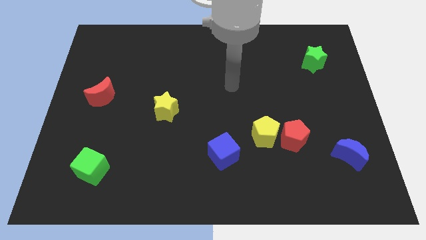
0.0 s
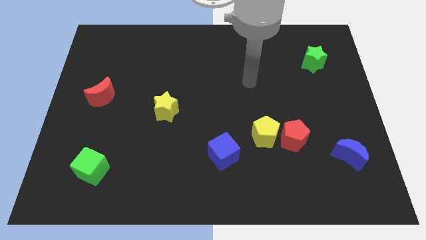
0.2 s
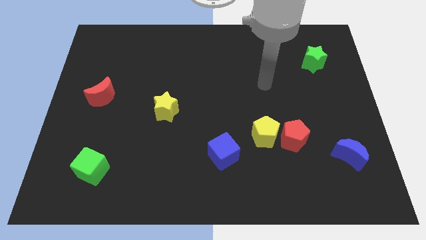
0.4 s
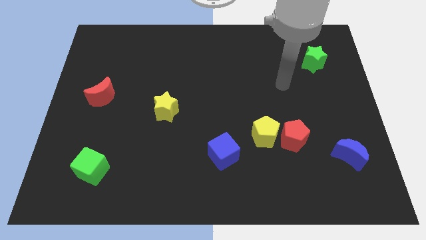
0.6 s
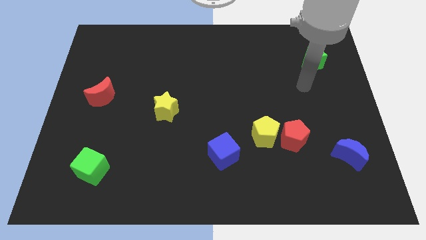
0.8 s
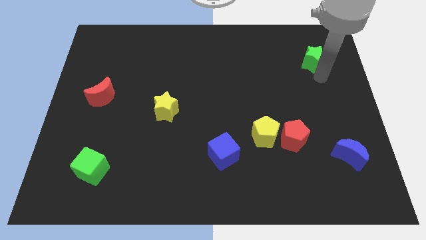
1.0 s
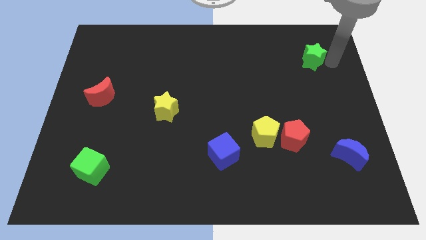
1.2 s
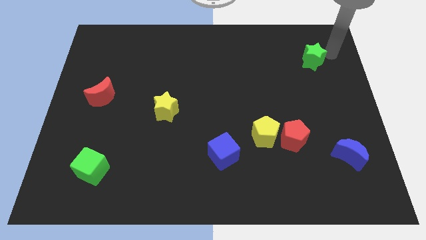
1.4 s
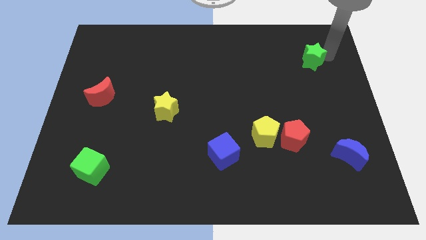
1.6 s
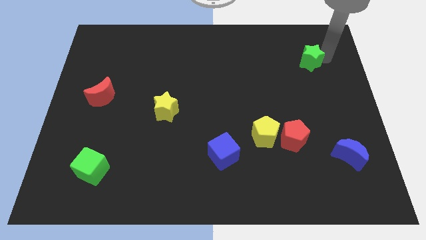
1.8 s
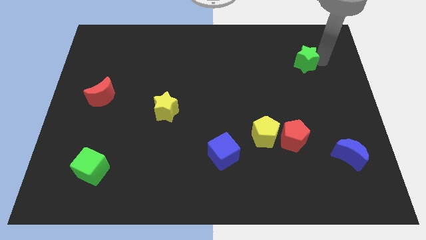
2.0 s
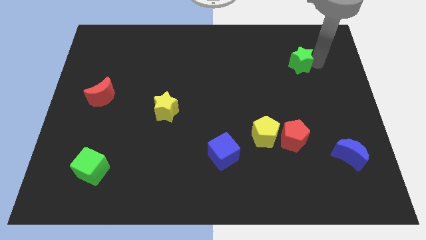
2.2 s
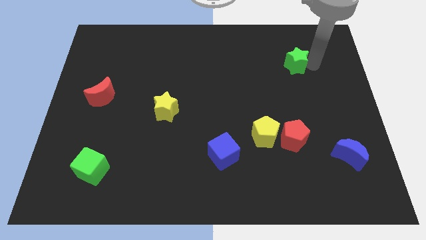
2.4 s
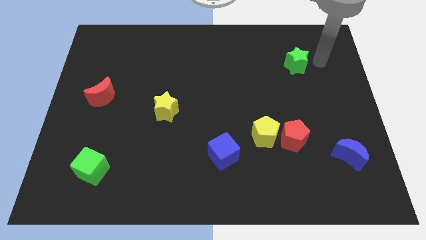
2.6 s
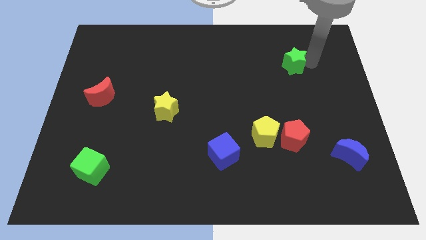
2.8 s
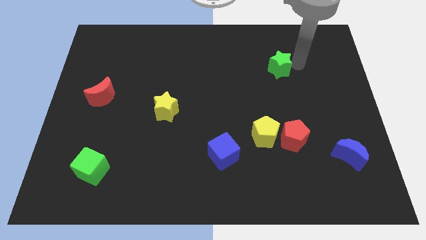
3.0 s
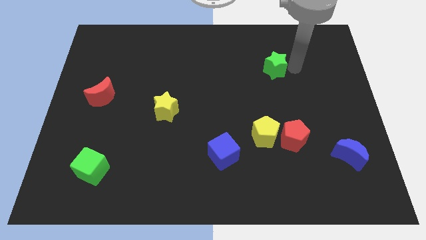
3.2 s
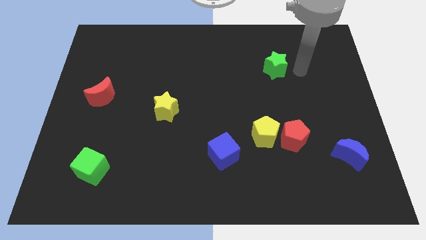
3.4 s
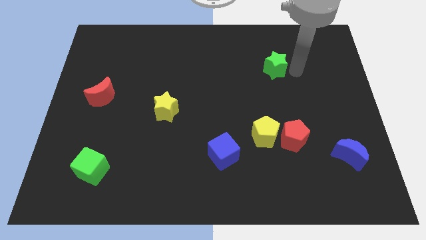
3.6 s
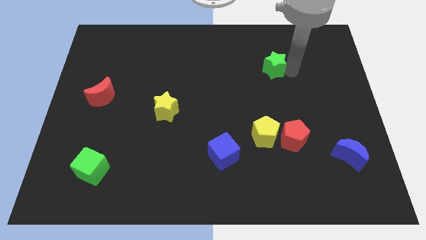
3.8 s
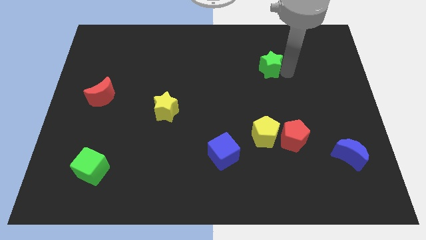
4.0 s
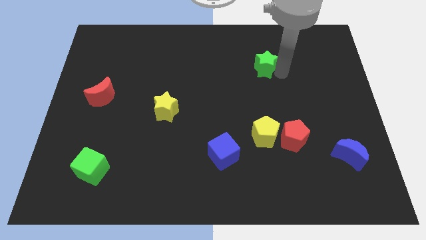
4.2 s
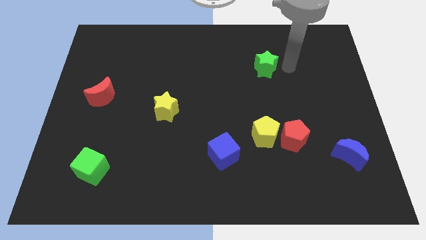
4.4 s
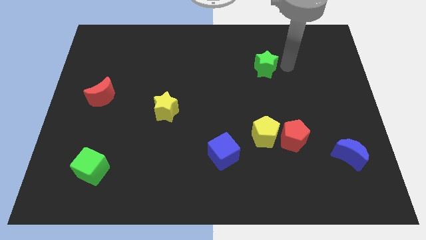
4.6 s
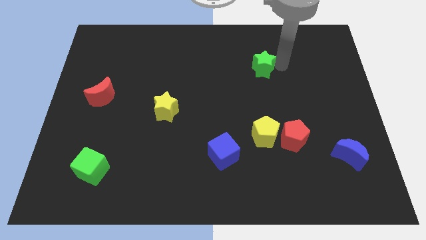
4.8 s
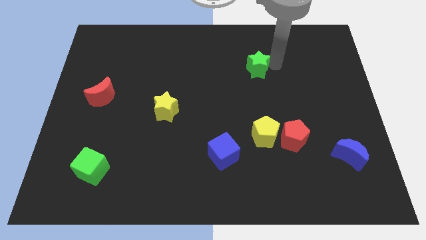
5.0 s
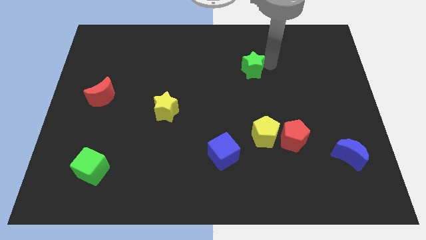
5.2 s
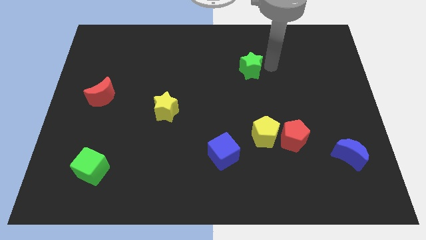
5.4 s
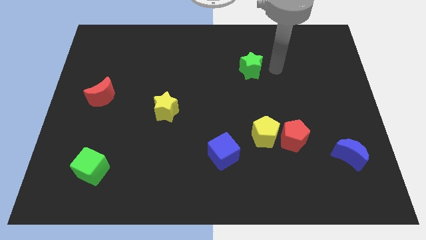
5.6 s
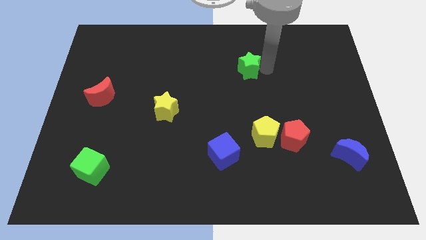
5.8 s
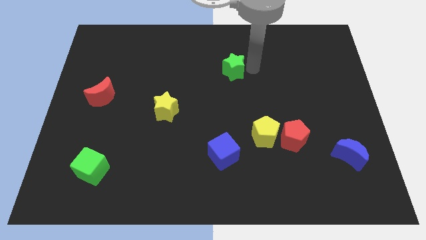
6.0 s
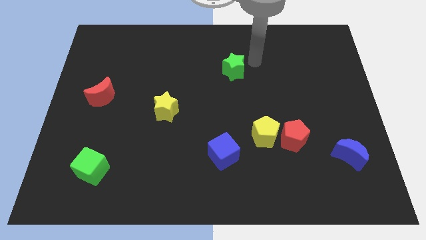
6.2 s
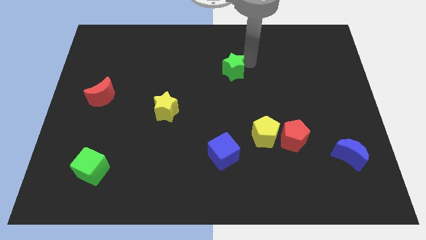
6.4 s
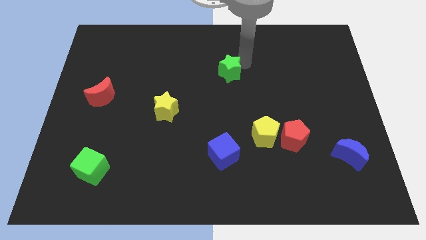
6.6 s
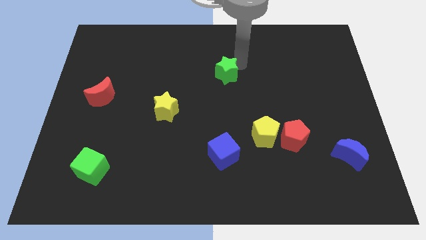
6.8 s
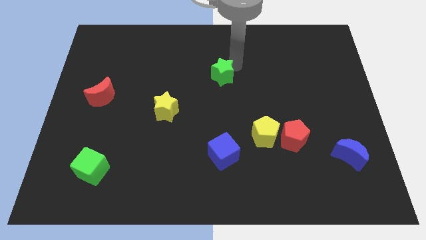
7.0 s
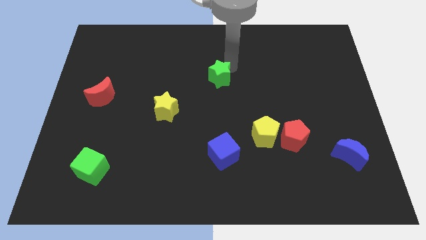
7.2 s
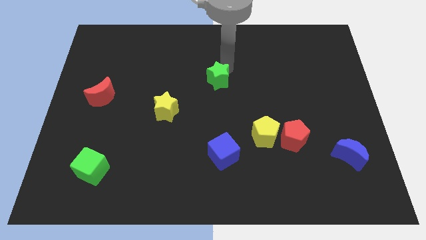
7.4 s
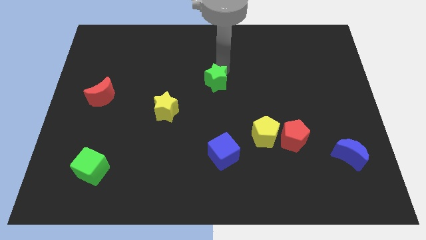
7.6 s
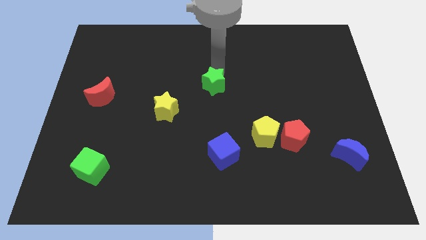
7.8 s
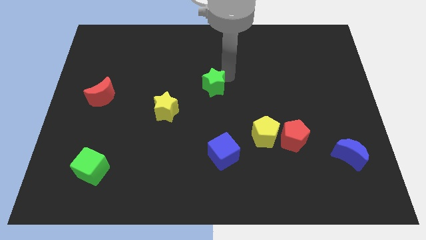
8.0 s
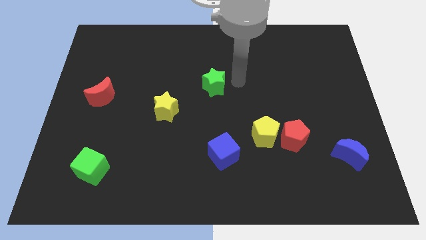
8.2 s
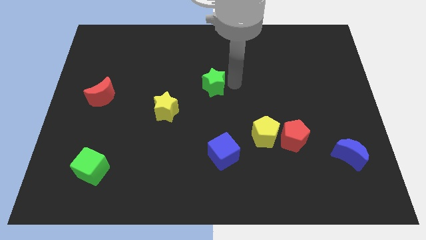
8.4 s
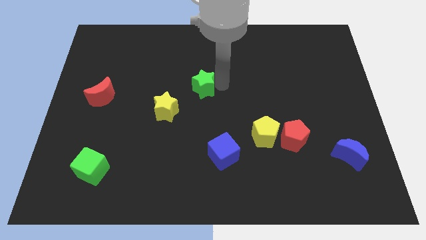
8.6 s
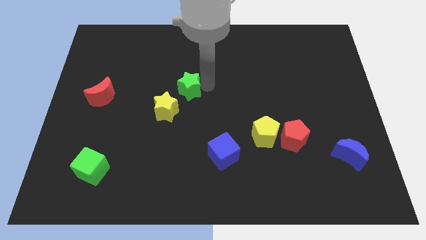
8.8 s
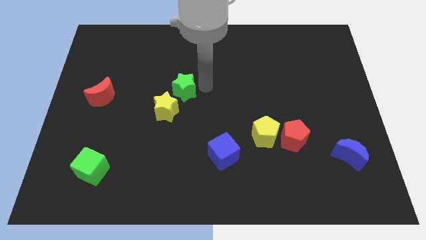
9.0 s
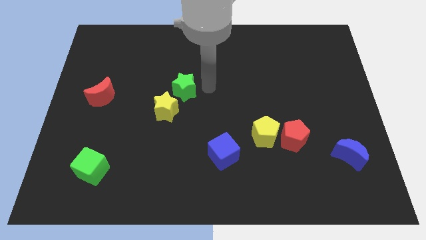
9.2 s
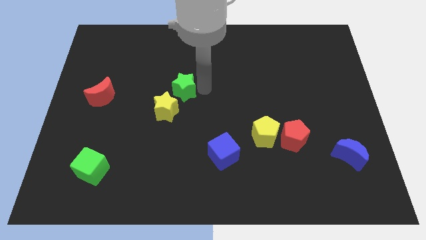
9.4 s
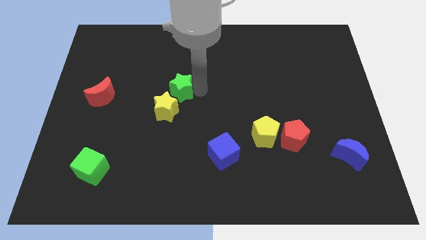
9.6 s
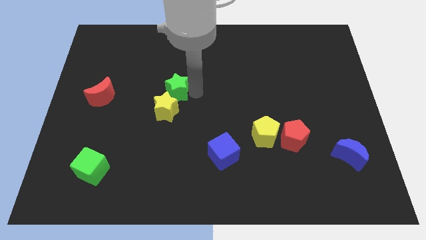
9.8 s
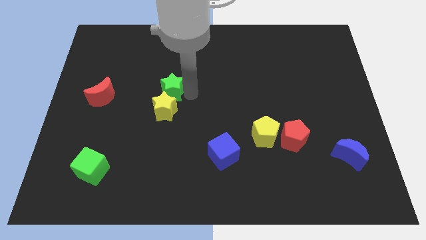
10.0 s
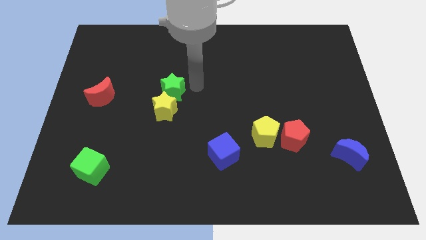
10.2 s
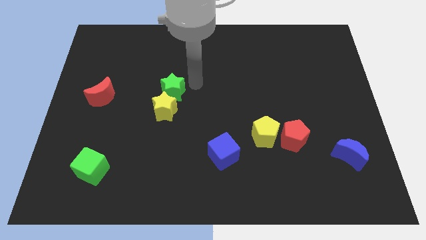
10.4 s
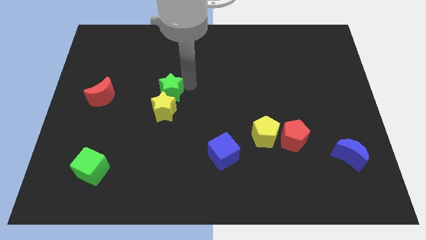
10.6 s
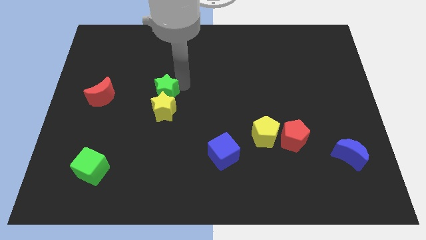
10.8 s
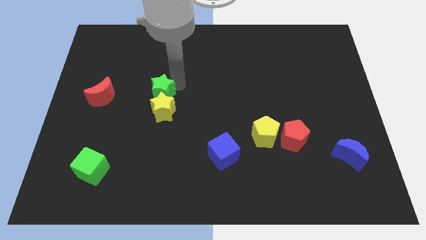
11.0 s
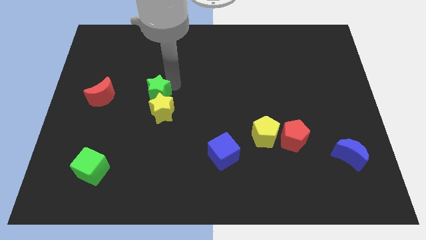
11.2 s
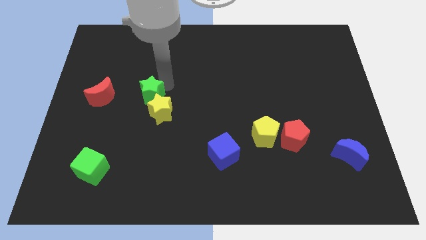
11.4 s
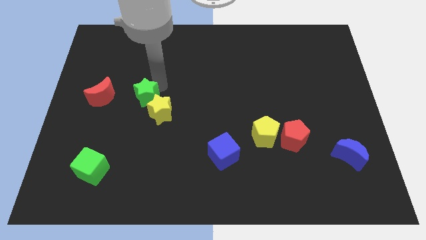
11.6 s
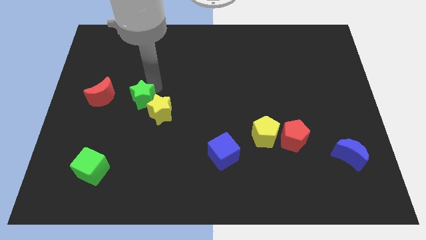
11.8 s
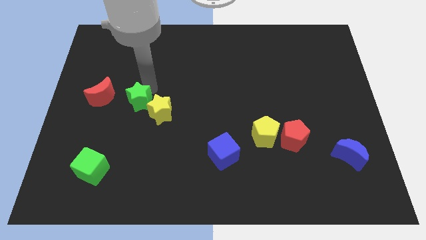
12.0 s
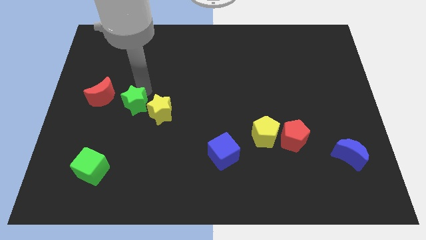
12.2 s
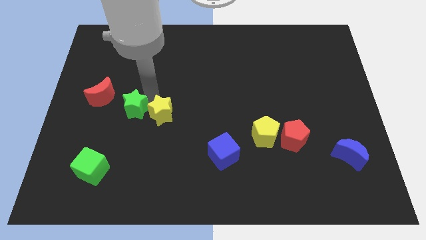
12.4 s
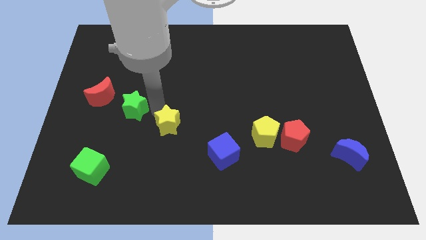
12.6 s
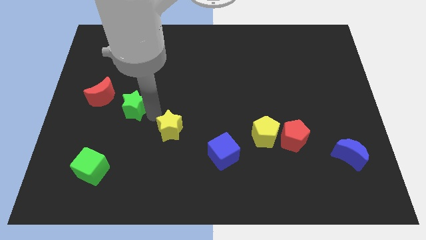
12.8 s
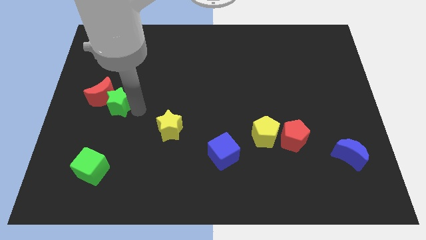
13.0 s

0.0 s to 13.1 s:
move the green star towards the red moon

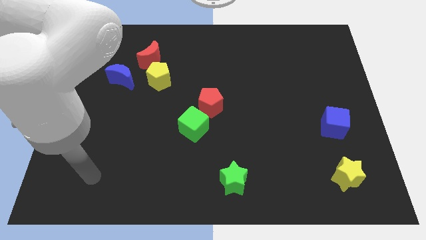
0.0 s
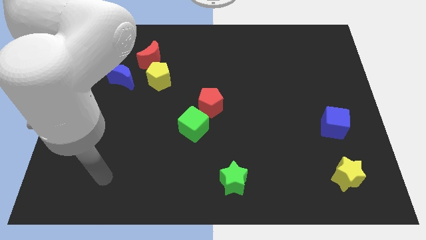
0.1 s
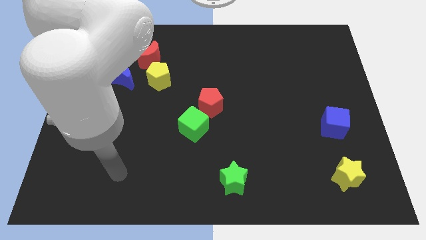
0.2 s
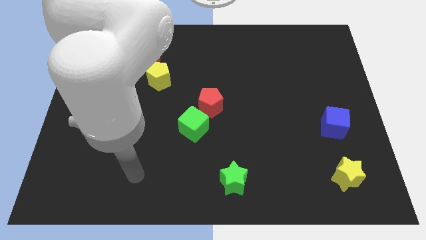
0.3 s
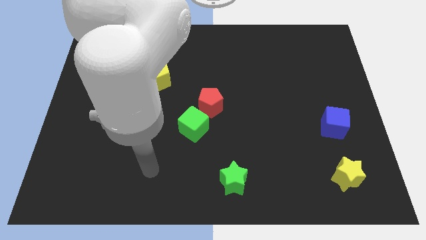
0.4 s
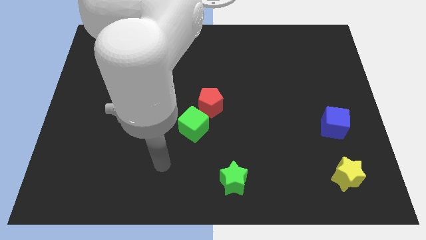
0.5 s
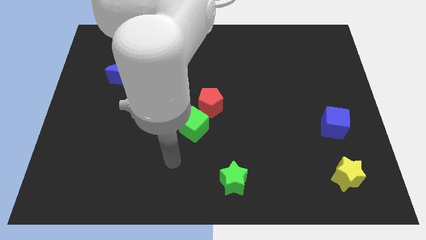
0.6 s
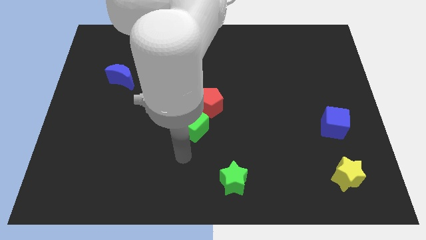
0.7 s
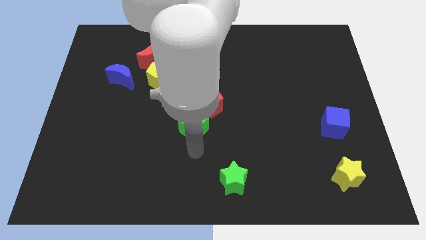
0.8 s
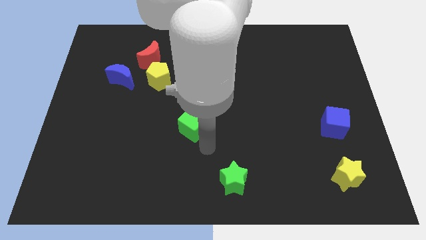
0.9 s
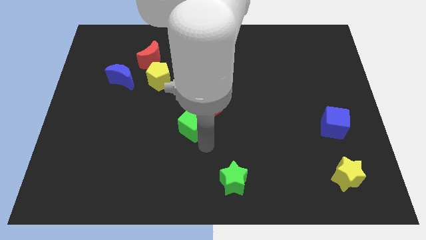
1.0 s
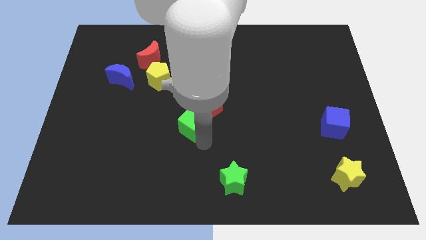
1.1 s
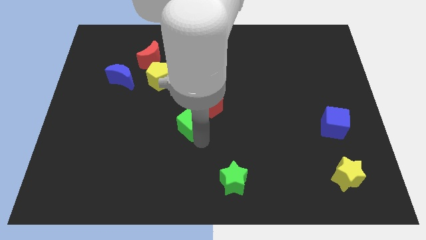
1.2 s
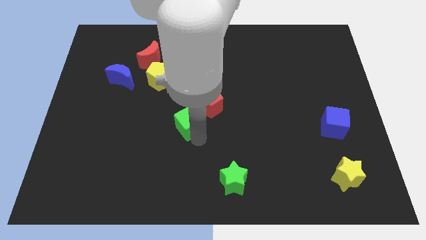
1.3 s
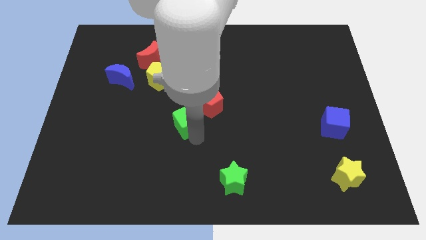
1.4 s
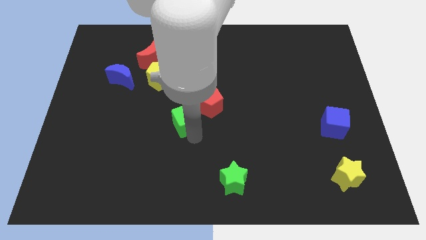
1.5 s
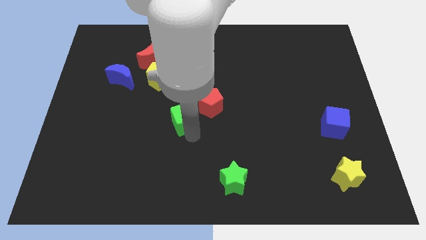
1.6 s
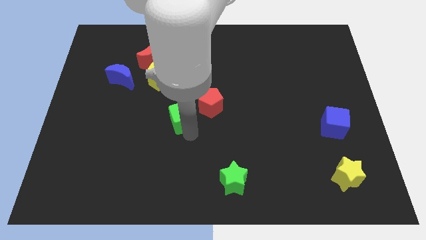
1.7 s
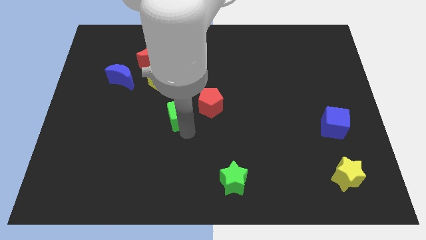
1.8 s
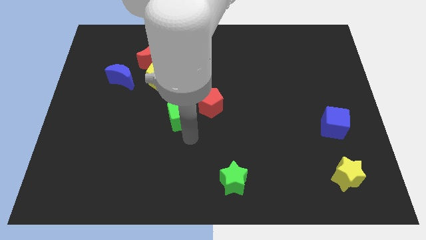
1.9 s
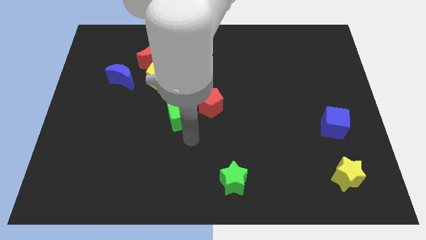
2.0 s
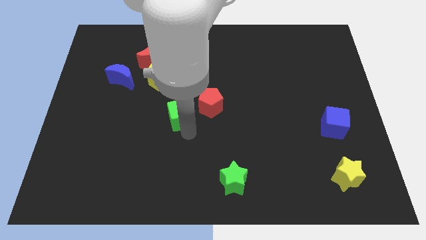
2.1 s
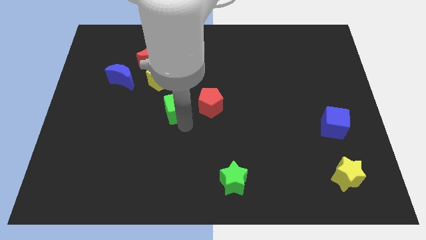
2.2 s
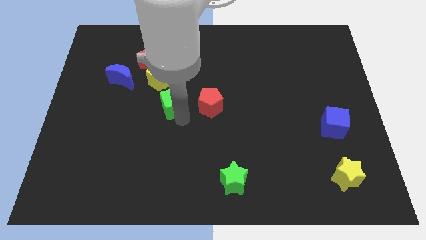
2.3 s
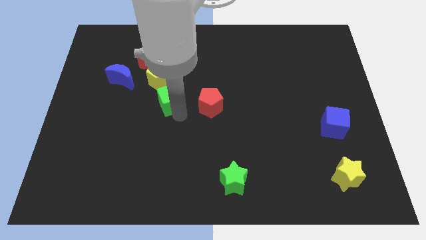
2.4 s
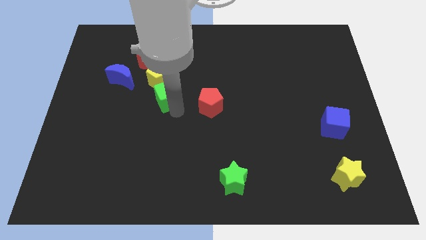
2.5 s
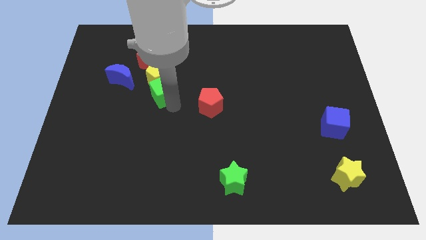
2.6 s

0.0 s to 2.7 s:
move the green cube close to the yellow pentagon
